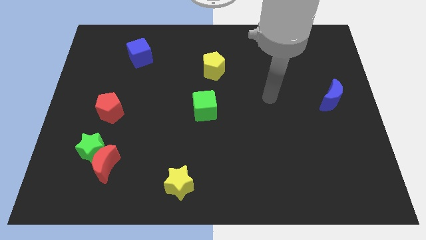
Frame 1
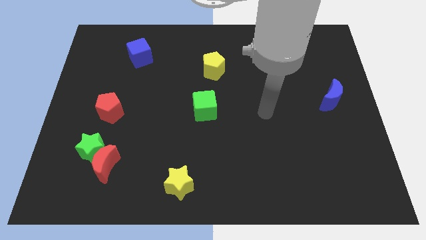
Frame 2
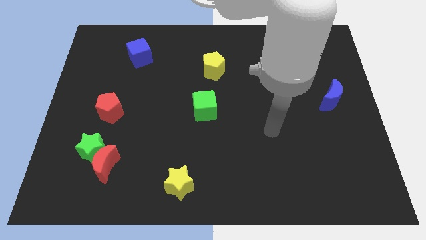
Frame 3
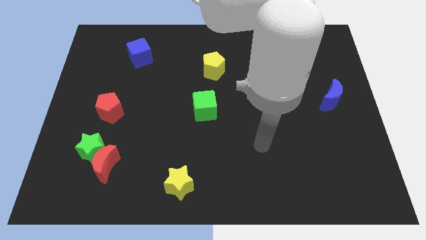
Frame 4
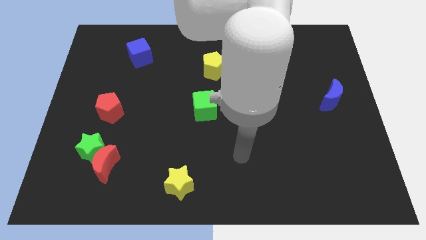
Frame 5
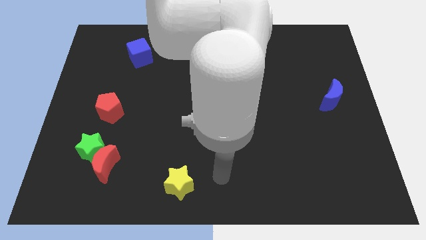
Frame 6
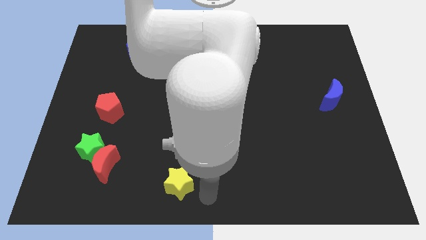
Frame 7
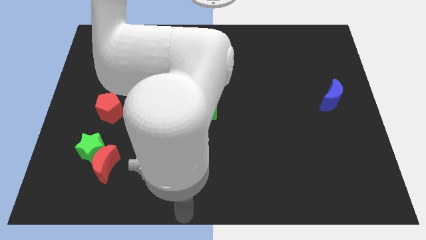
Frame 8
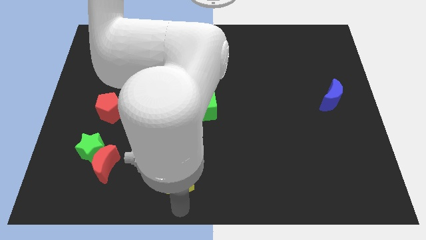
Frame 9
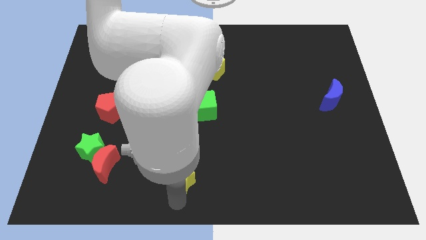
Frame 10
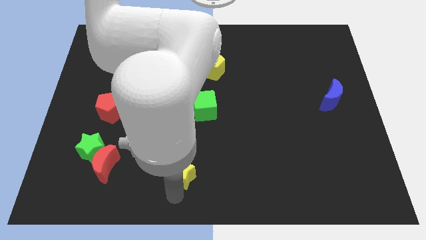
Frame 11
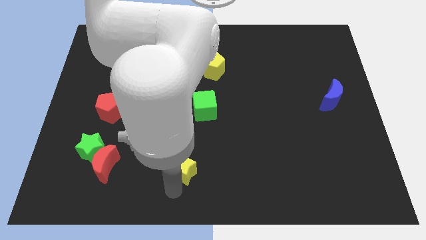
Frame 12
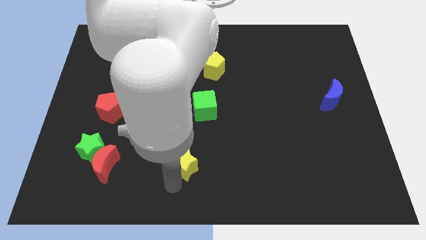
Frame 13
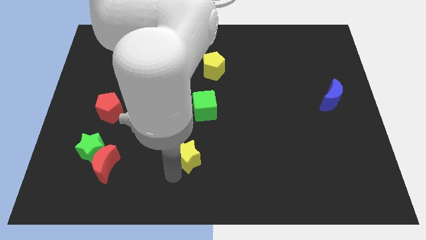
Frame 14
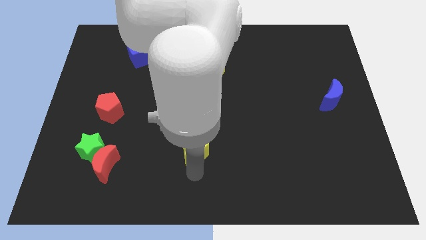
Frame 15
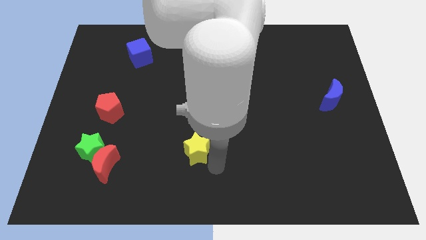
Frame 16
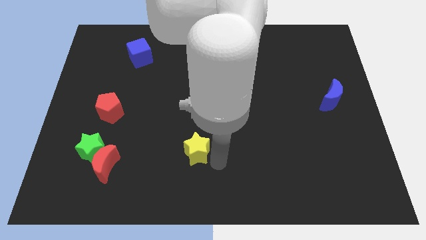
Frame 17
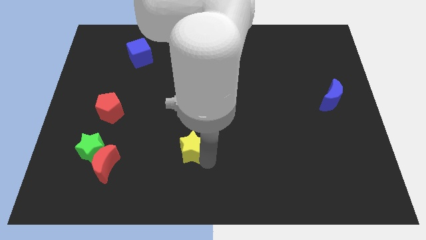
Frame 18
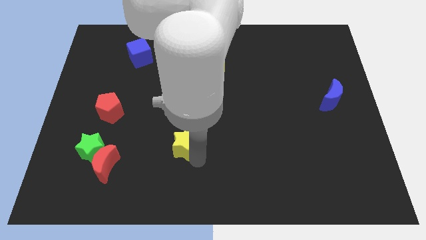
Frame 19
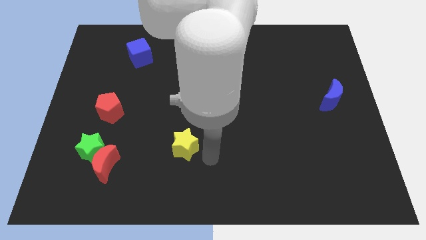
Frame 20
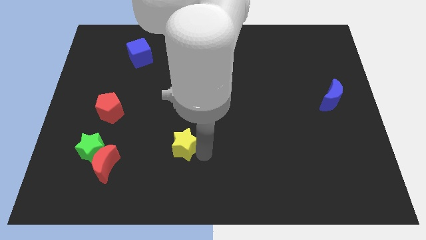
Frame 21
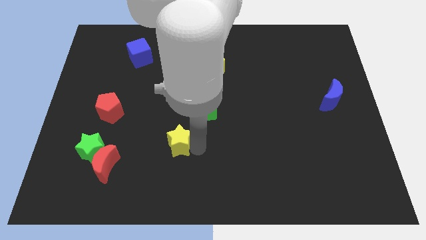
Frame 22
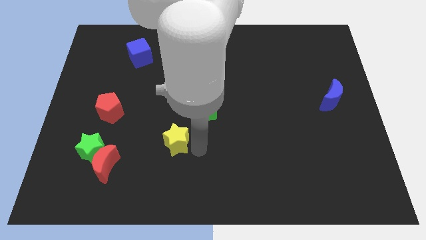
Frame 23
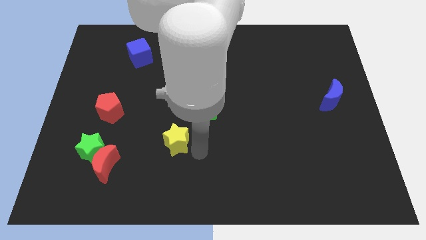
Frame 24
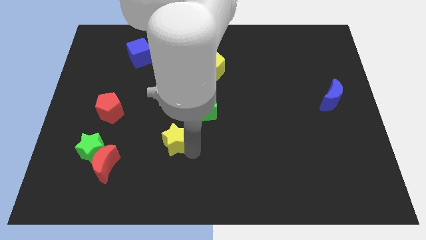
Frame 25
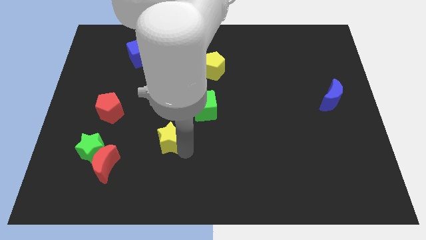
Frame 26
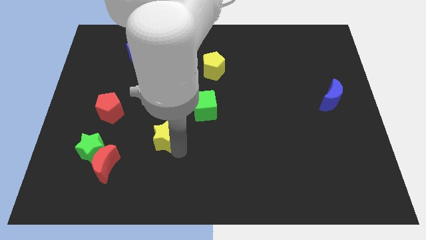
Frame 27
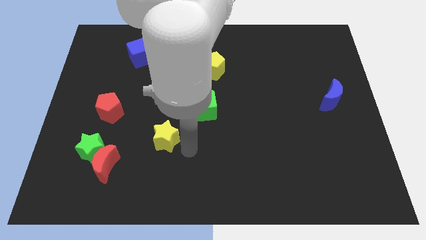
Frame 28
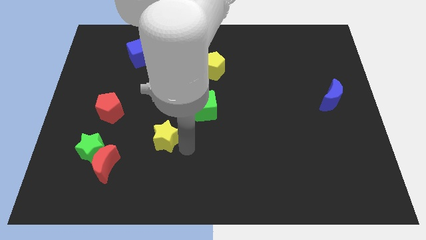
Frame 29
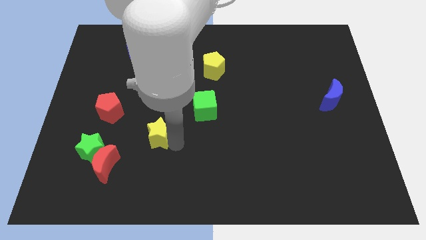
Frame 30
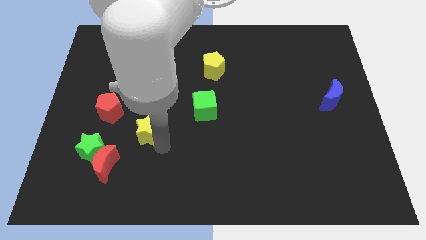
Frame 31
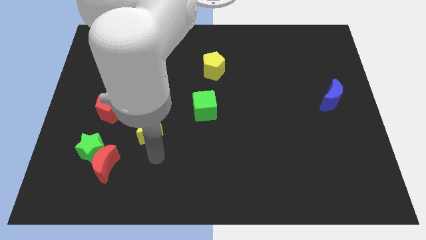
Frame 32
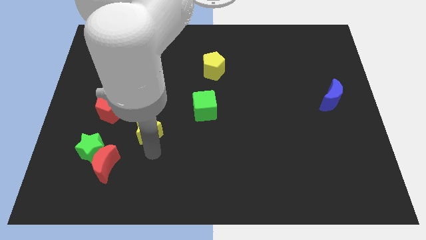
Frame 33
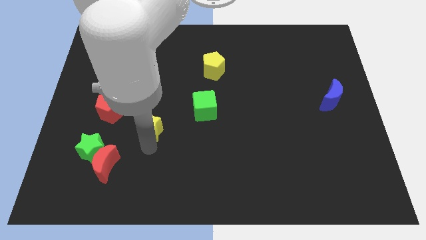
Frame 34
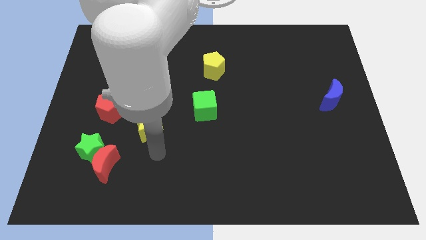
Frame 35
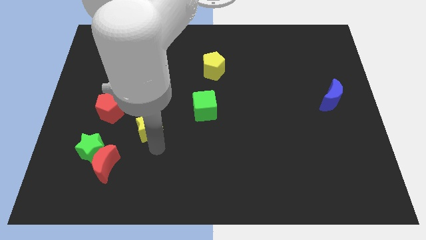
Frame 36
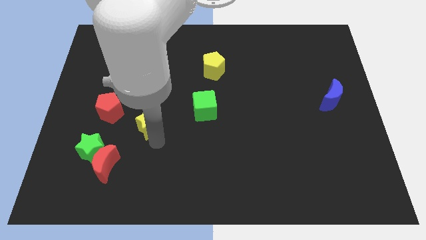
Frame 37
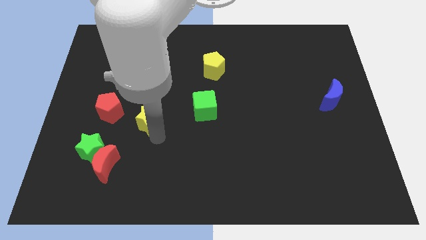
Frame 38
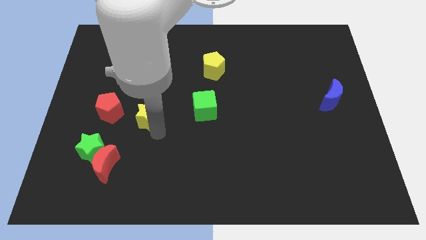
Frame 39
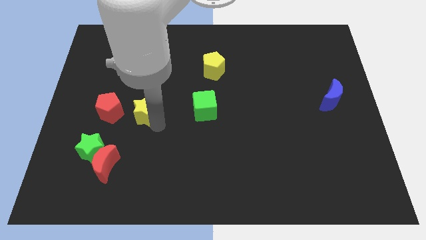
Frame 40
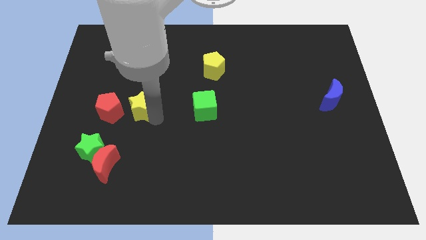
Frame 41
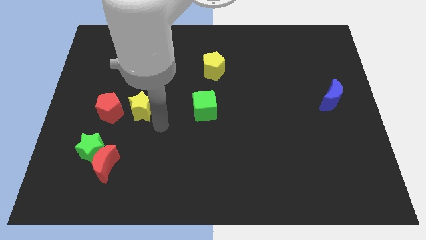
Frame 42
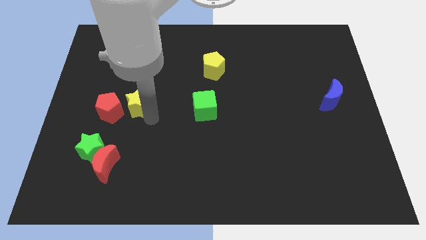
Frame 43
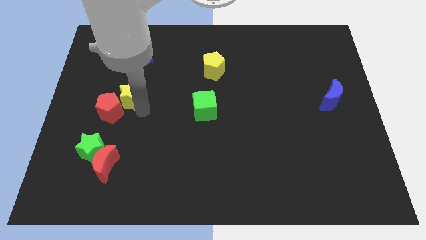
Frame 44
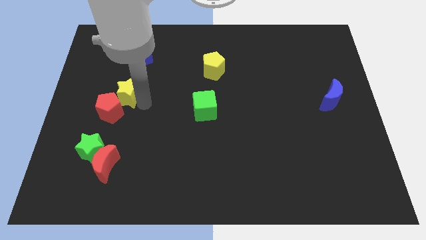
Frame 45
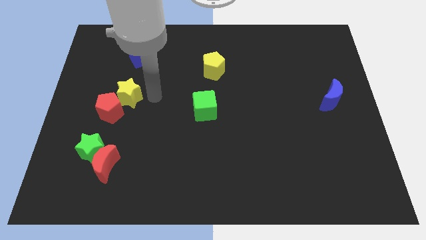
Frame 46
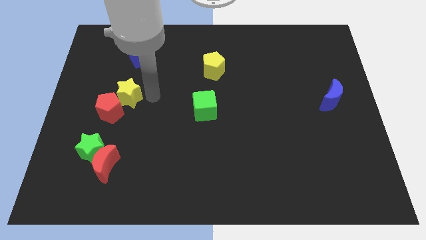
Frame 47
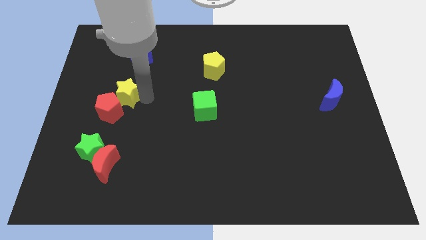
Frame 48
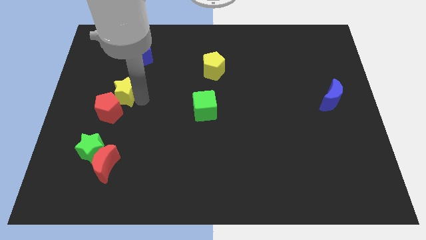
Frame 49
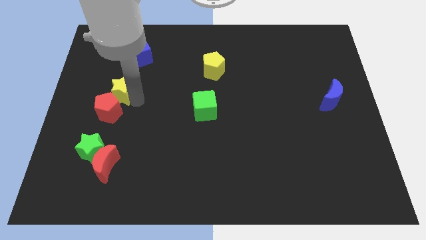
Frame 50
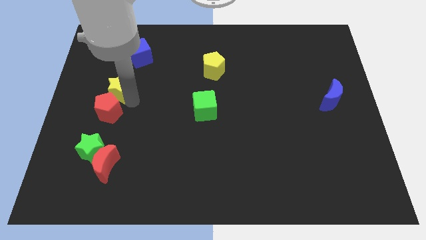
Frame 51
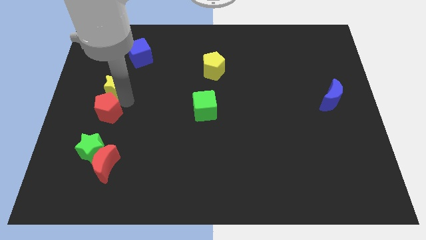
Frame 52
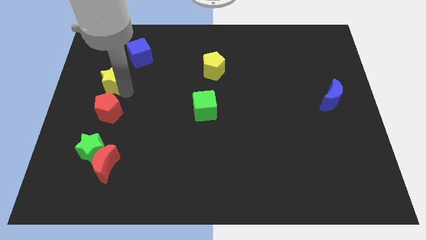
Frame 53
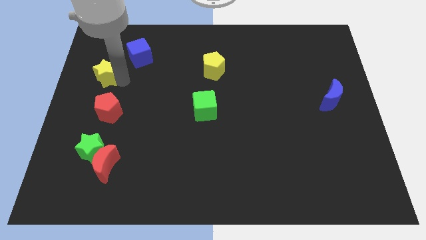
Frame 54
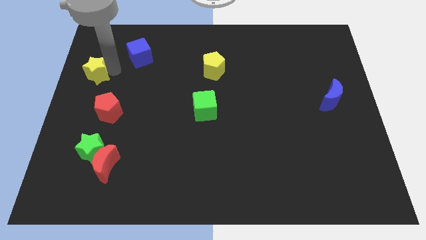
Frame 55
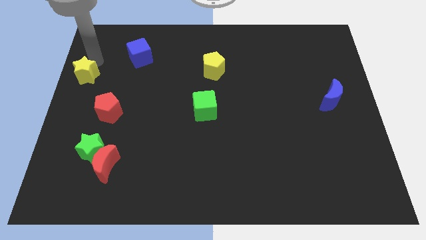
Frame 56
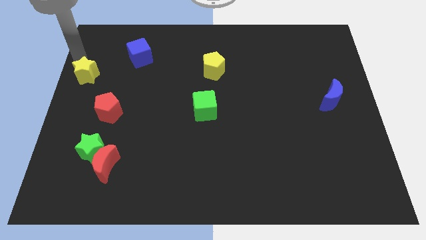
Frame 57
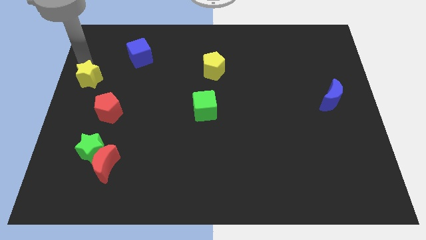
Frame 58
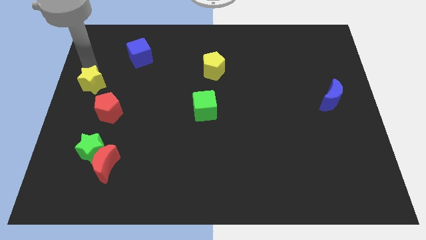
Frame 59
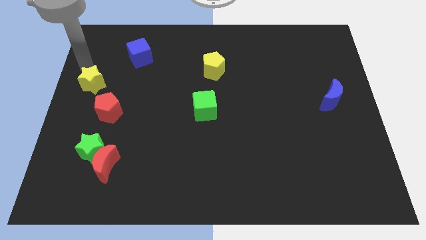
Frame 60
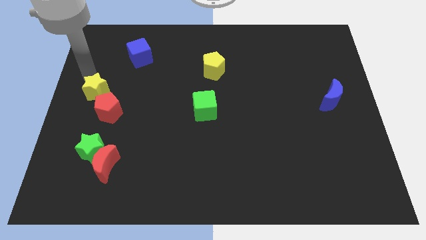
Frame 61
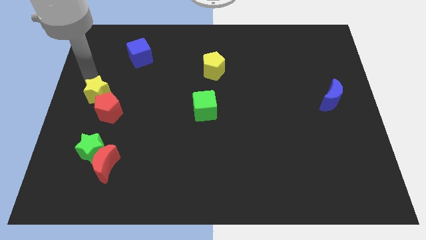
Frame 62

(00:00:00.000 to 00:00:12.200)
slide the yellow star to the top of the green star

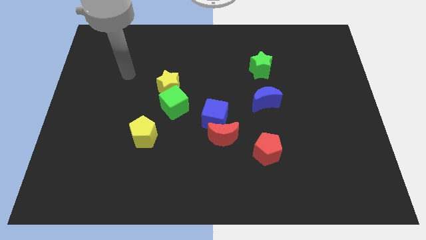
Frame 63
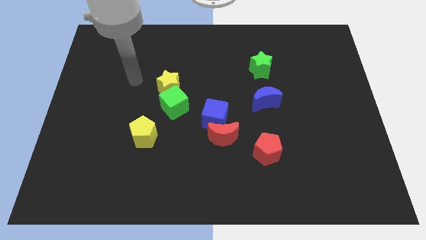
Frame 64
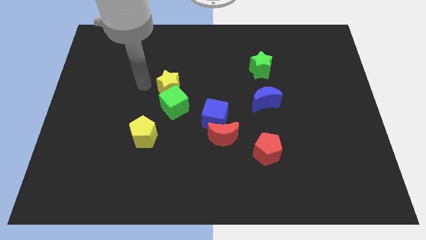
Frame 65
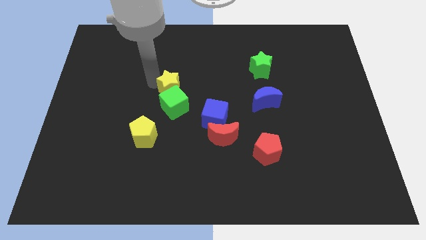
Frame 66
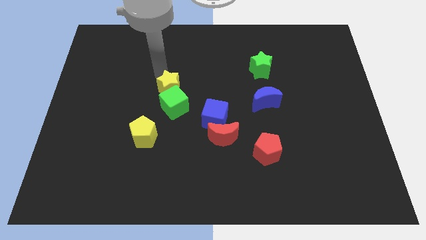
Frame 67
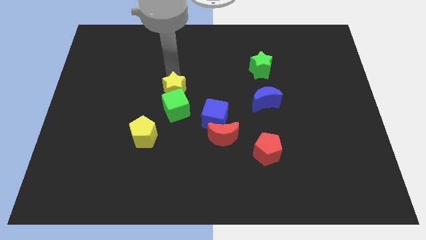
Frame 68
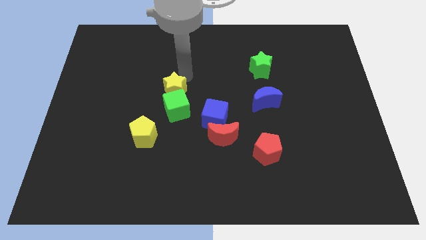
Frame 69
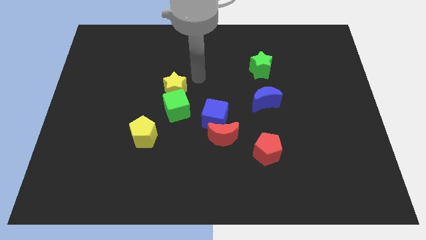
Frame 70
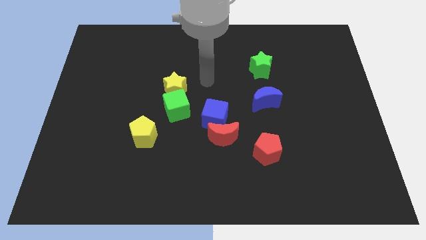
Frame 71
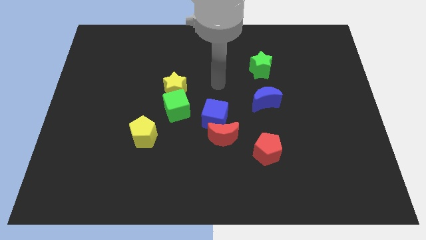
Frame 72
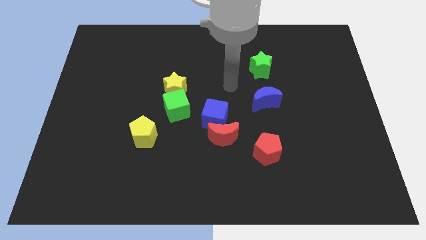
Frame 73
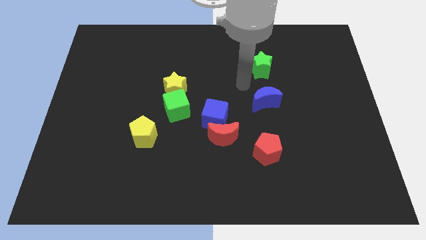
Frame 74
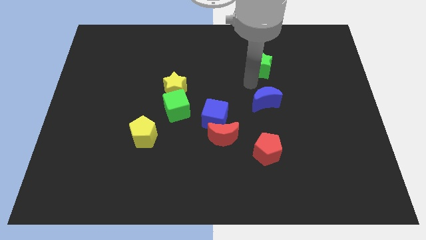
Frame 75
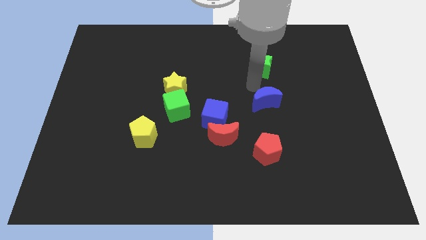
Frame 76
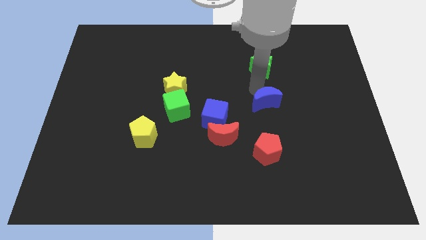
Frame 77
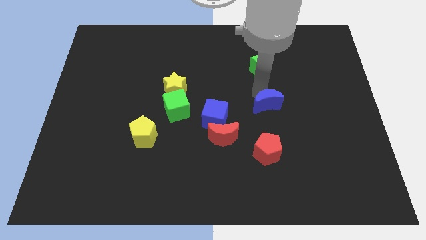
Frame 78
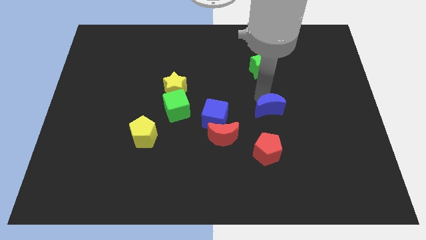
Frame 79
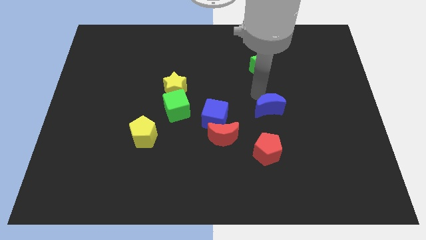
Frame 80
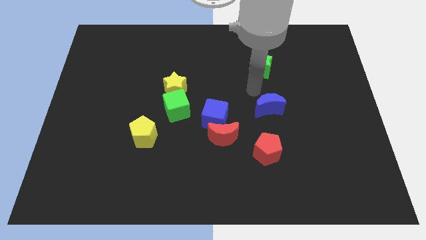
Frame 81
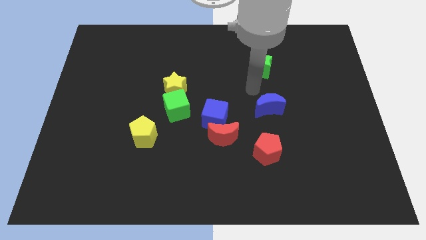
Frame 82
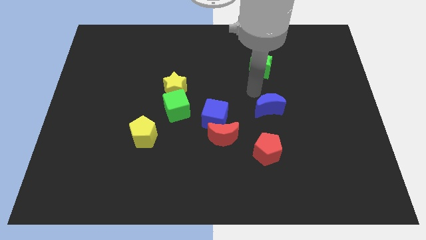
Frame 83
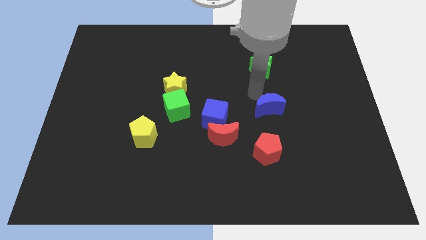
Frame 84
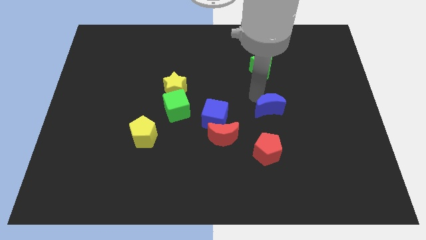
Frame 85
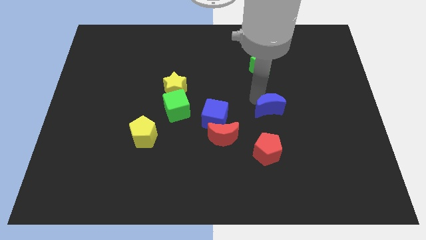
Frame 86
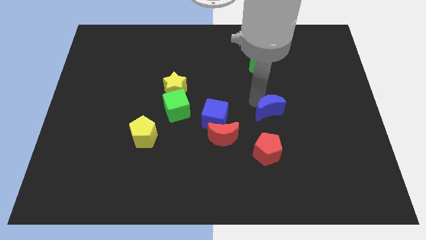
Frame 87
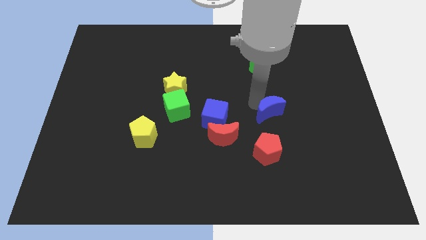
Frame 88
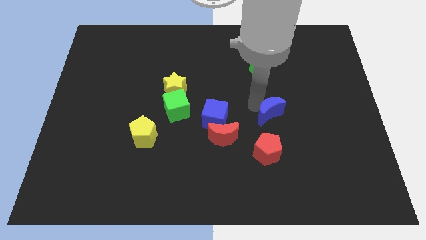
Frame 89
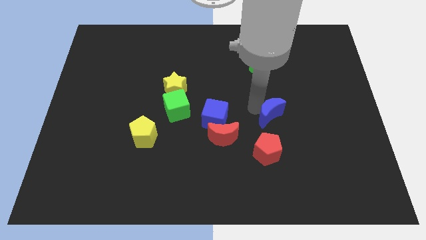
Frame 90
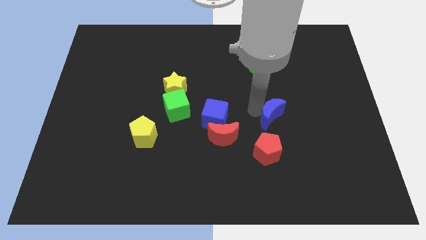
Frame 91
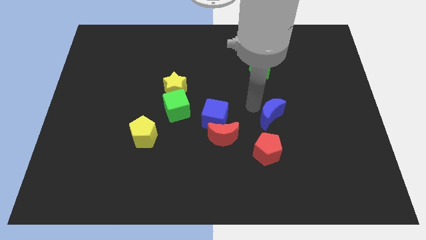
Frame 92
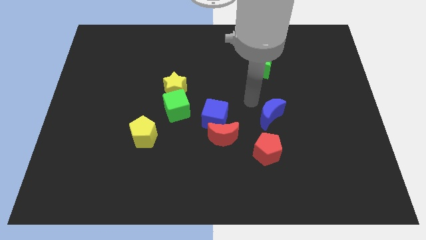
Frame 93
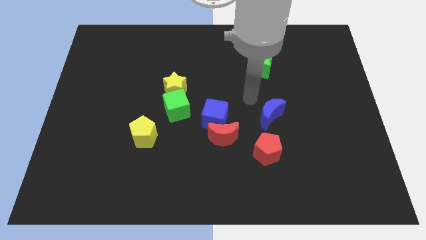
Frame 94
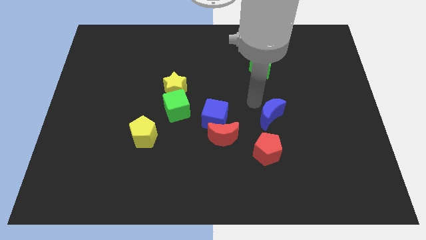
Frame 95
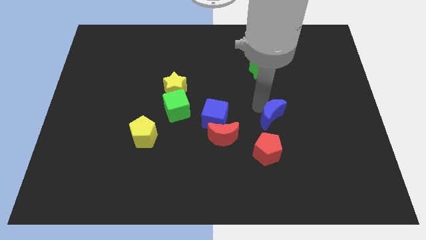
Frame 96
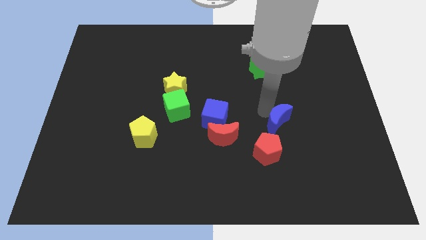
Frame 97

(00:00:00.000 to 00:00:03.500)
push the blue moon to the top right side of the red pentagon
